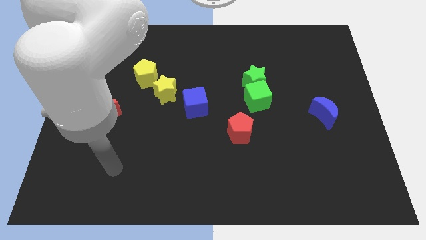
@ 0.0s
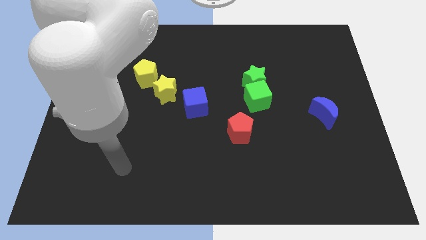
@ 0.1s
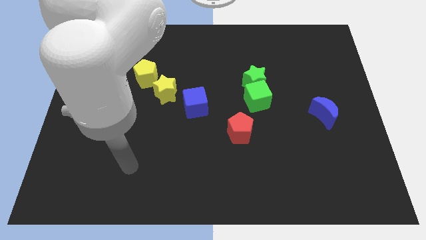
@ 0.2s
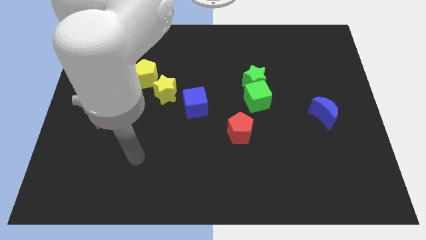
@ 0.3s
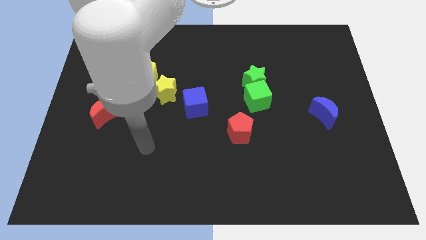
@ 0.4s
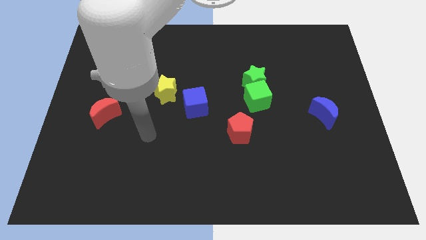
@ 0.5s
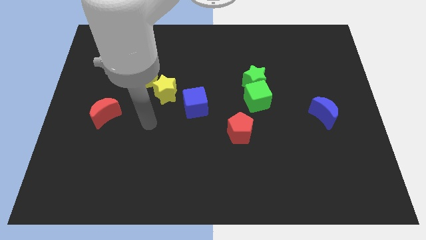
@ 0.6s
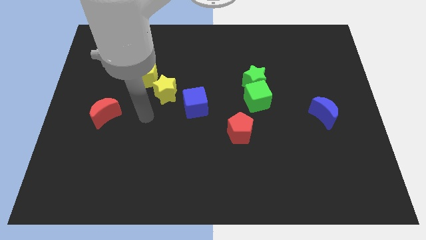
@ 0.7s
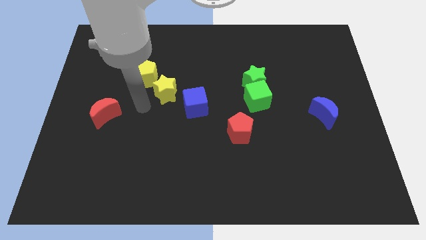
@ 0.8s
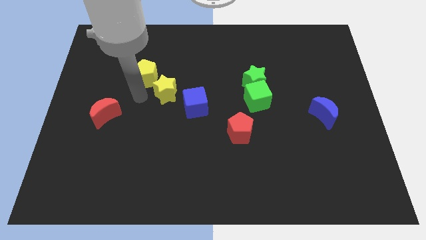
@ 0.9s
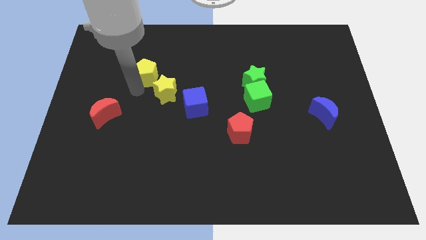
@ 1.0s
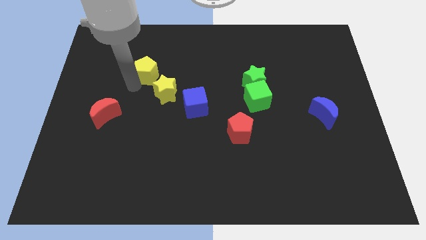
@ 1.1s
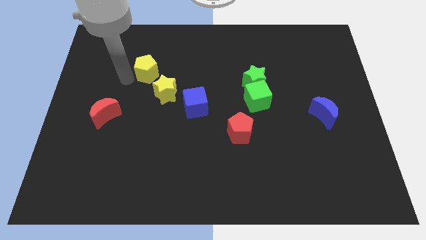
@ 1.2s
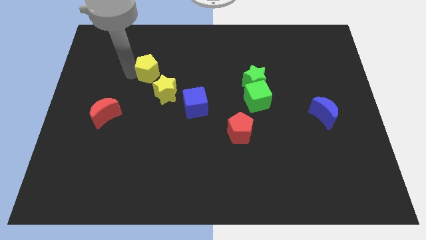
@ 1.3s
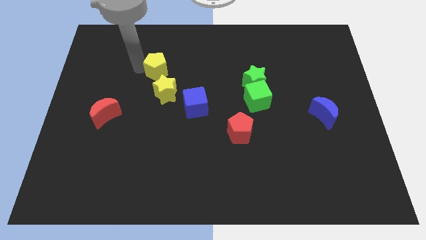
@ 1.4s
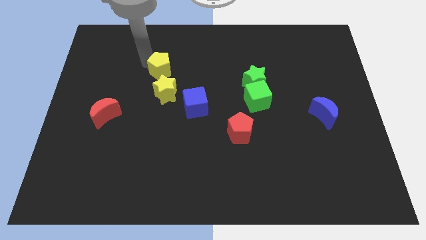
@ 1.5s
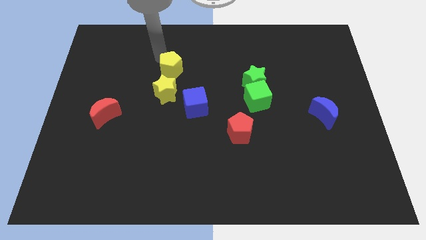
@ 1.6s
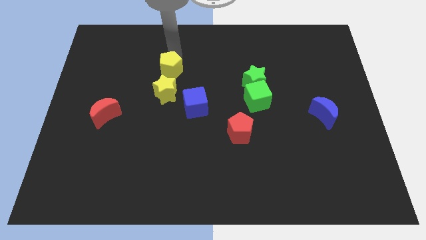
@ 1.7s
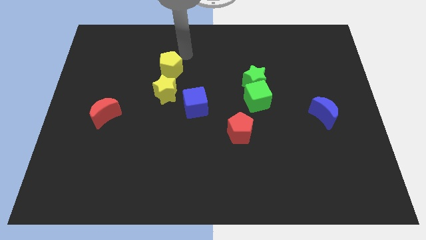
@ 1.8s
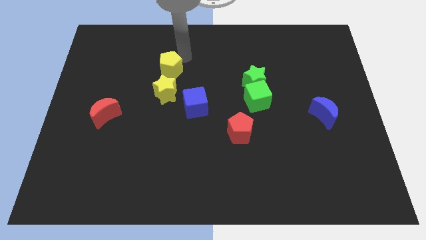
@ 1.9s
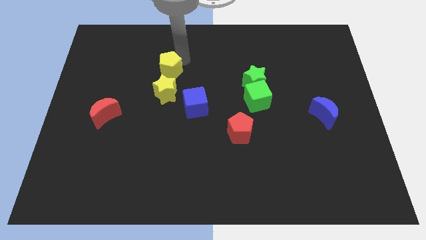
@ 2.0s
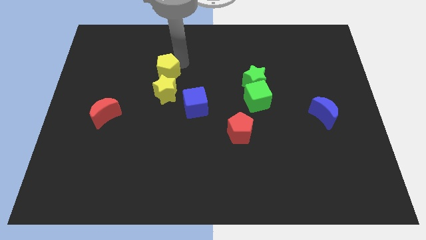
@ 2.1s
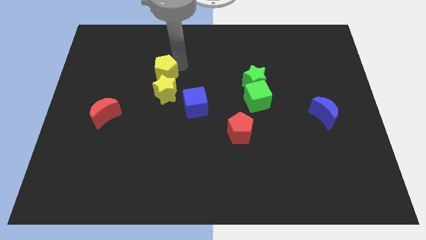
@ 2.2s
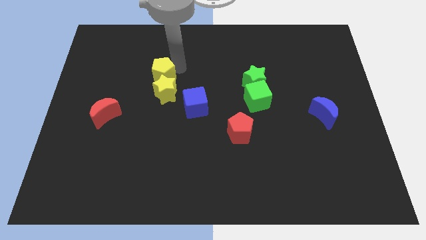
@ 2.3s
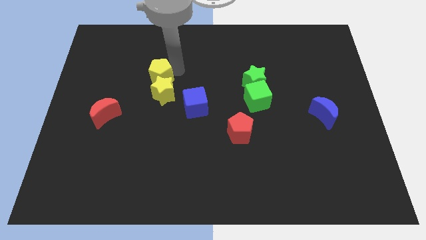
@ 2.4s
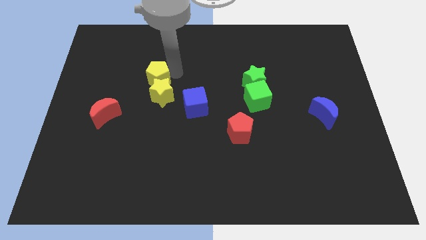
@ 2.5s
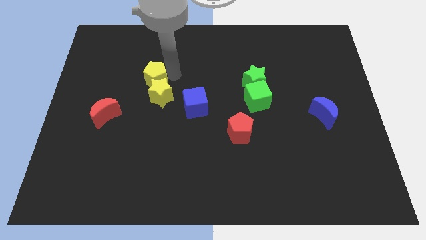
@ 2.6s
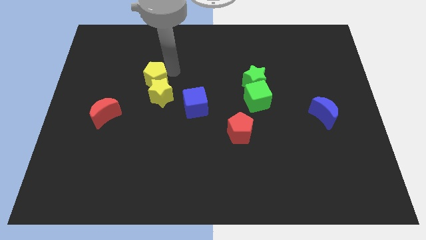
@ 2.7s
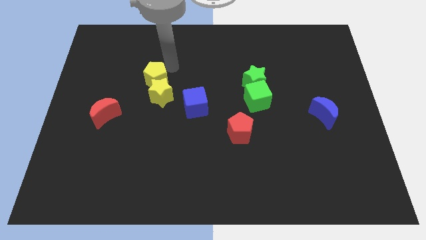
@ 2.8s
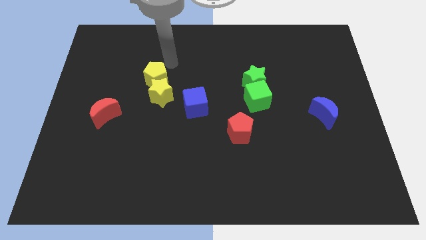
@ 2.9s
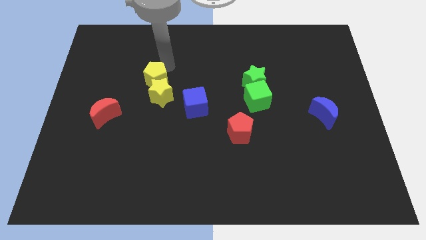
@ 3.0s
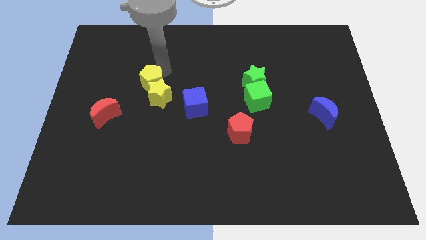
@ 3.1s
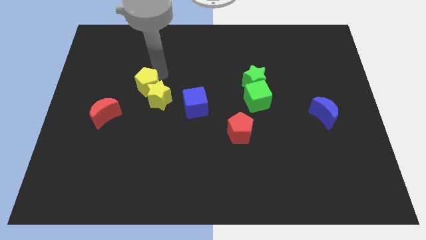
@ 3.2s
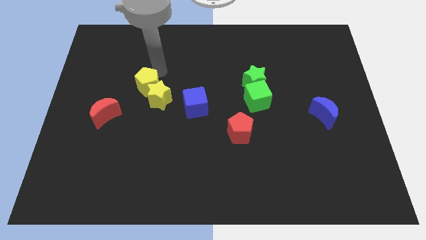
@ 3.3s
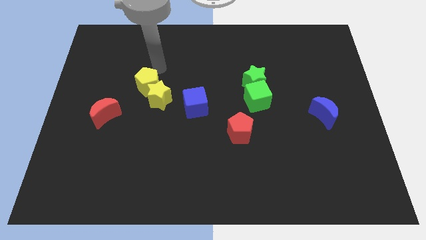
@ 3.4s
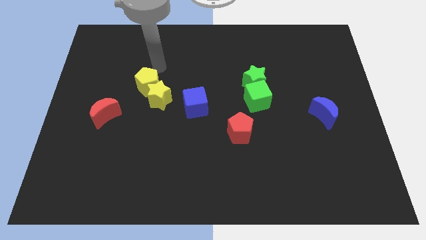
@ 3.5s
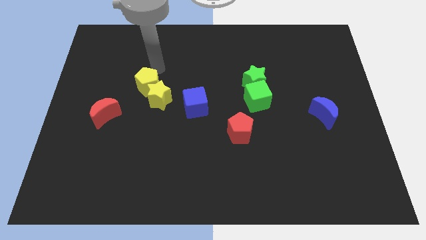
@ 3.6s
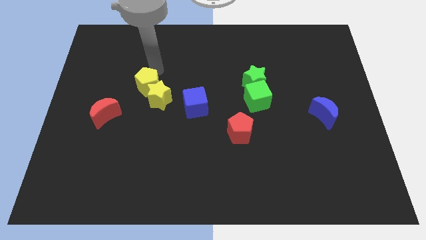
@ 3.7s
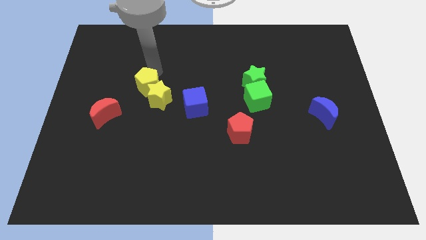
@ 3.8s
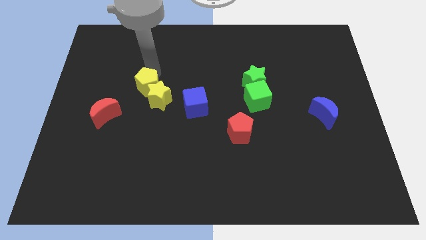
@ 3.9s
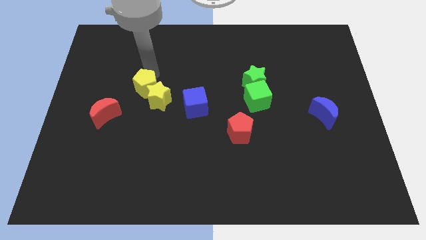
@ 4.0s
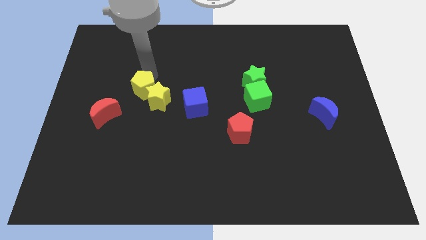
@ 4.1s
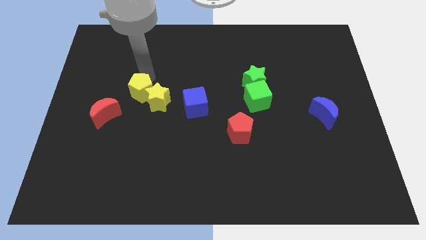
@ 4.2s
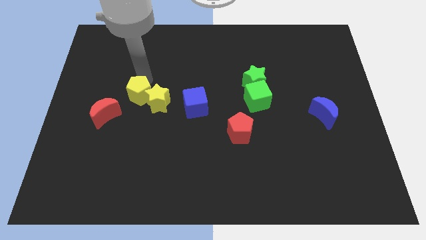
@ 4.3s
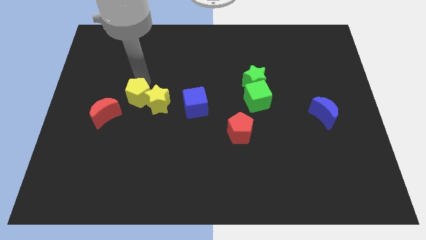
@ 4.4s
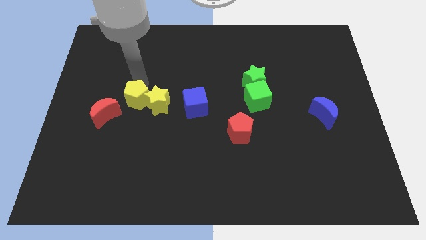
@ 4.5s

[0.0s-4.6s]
slightly push the yellow pentagon downwards

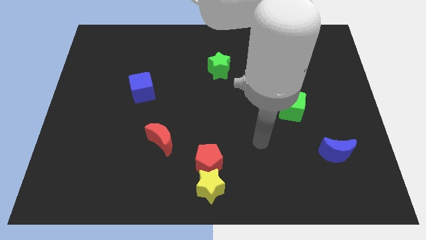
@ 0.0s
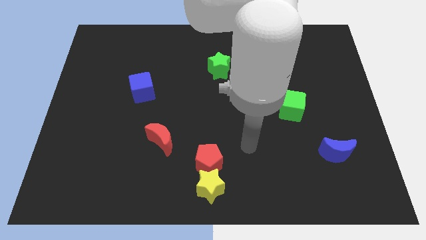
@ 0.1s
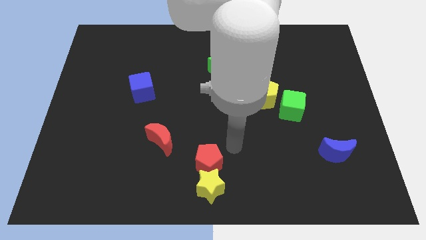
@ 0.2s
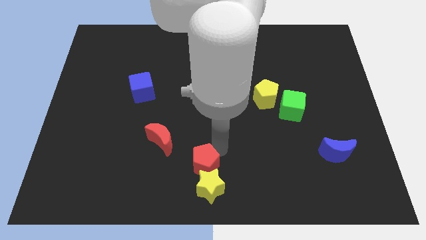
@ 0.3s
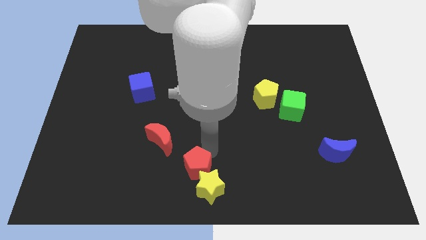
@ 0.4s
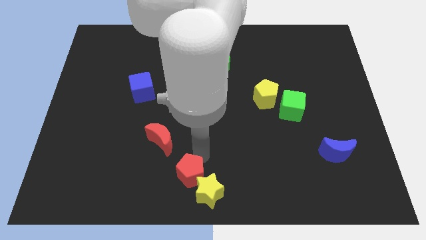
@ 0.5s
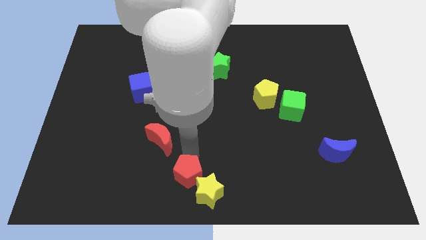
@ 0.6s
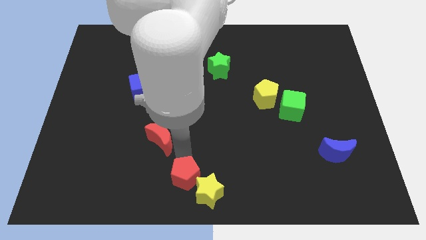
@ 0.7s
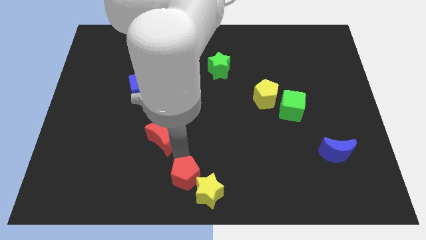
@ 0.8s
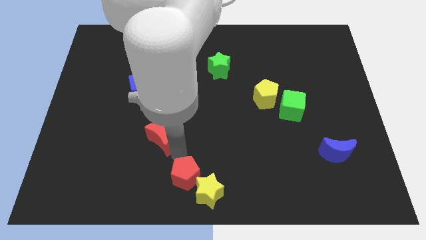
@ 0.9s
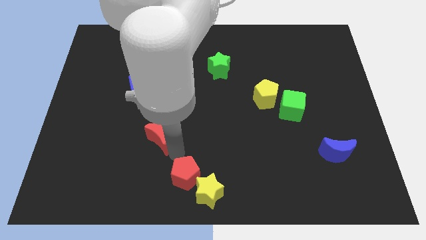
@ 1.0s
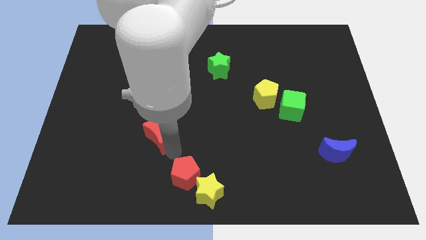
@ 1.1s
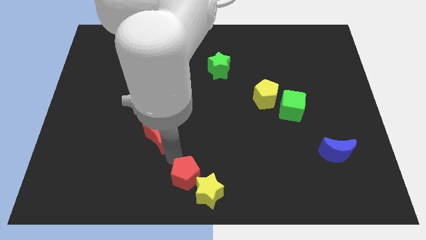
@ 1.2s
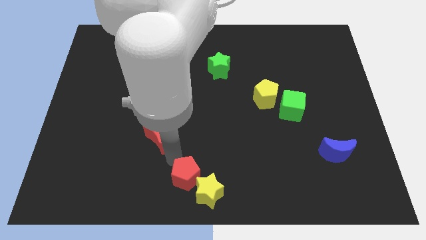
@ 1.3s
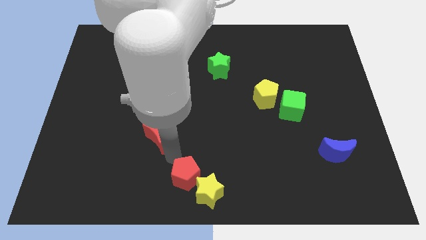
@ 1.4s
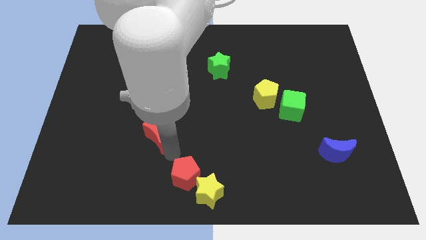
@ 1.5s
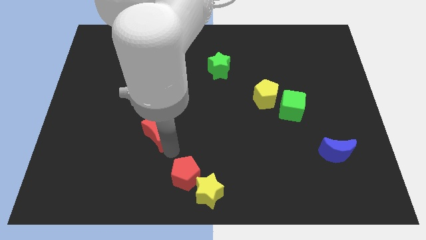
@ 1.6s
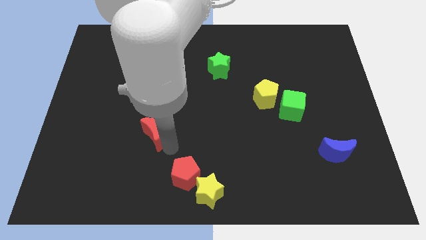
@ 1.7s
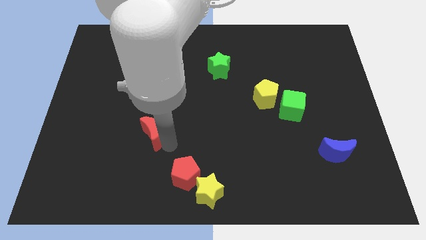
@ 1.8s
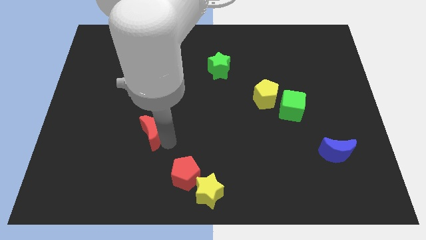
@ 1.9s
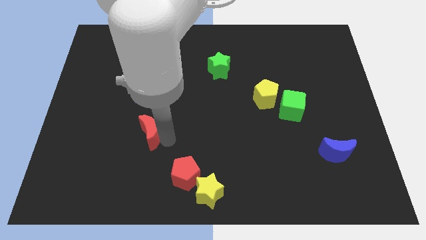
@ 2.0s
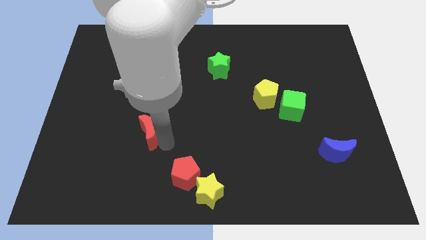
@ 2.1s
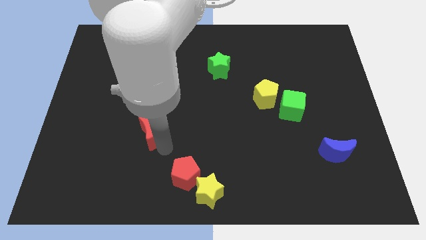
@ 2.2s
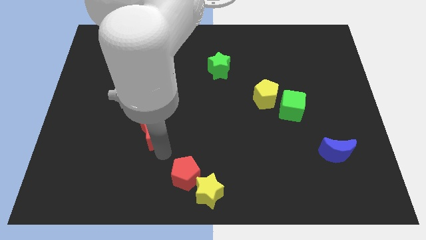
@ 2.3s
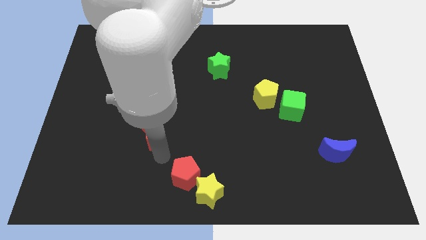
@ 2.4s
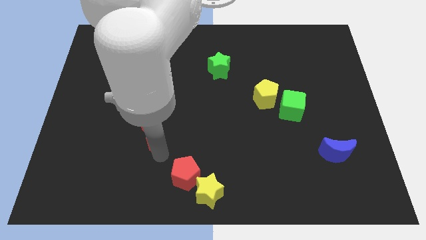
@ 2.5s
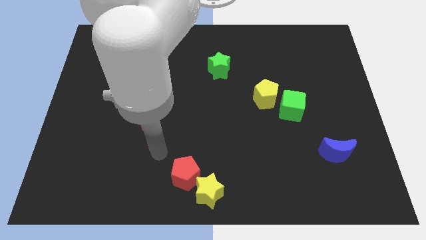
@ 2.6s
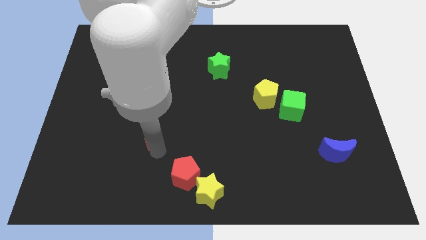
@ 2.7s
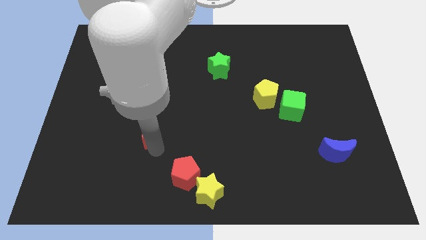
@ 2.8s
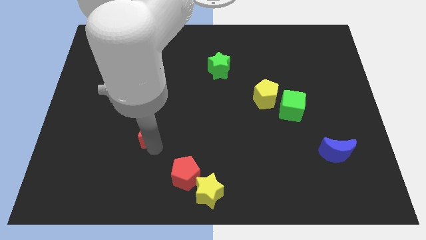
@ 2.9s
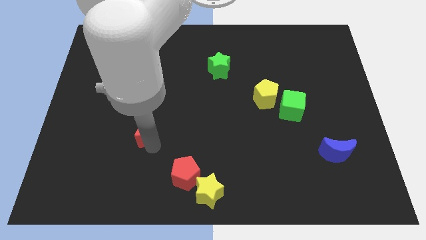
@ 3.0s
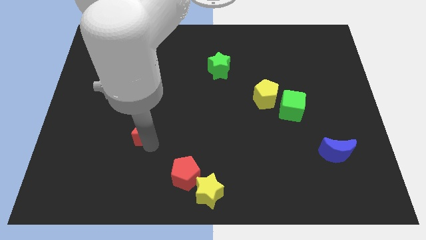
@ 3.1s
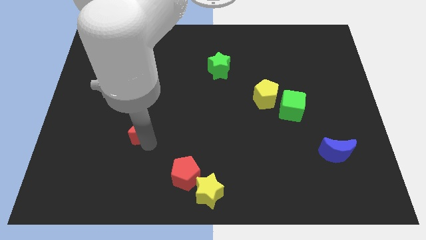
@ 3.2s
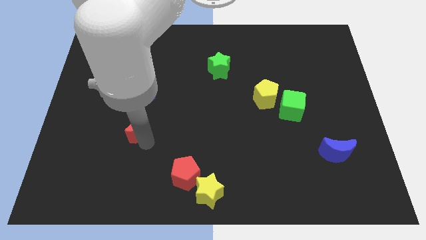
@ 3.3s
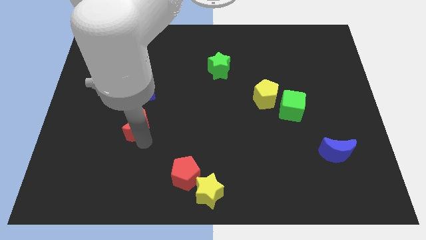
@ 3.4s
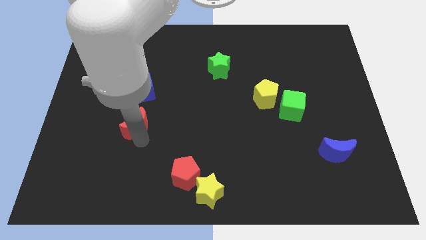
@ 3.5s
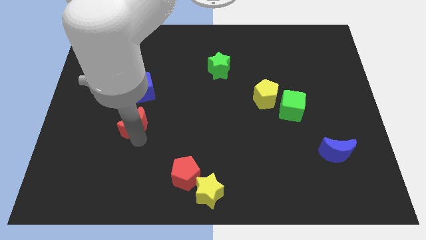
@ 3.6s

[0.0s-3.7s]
push the red moon a little up and left
